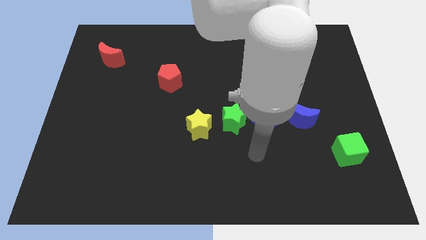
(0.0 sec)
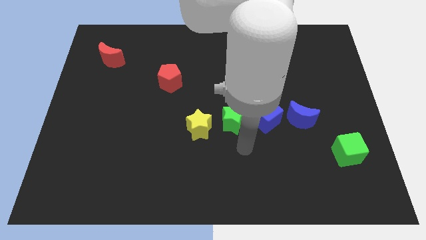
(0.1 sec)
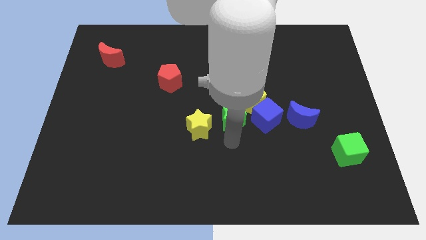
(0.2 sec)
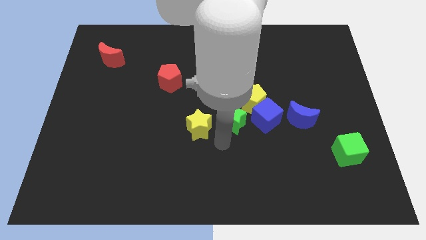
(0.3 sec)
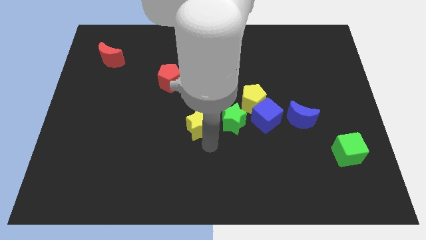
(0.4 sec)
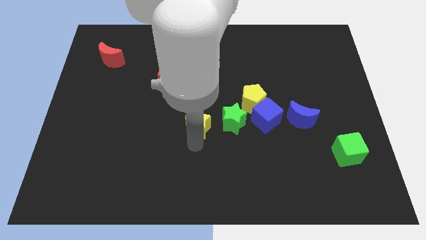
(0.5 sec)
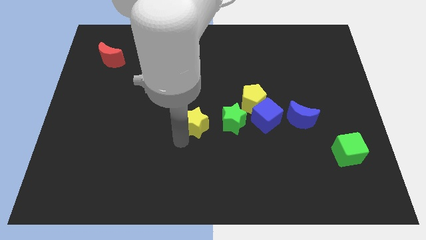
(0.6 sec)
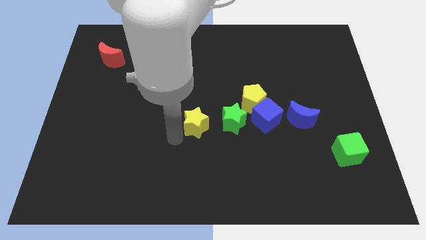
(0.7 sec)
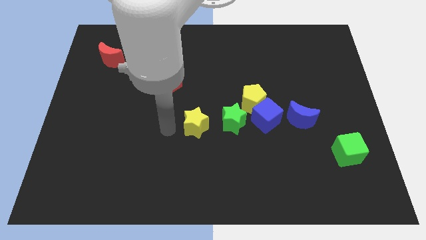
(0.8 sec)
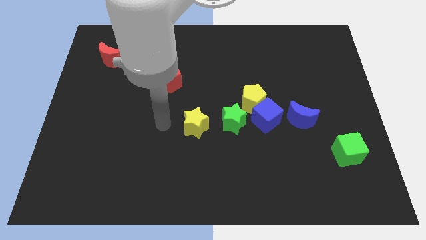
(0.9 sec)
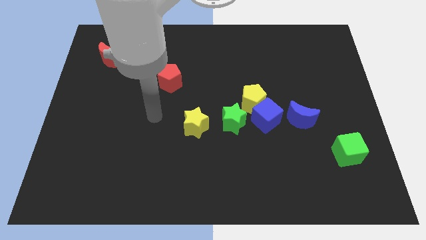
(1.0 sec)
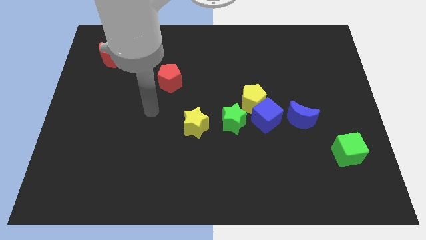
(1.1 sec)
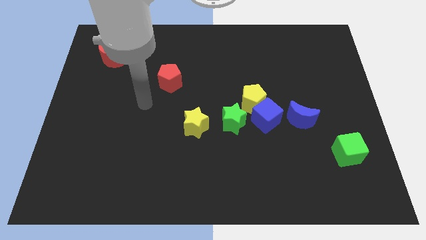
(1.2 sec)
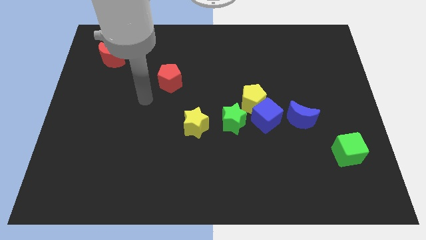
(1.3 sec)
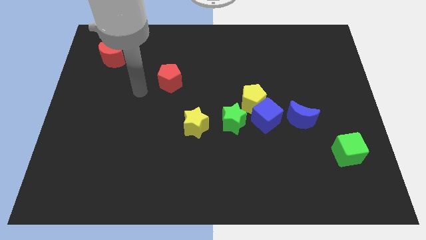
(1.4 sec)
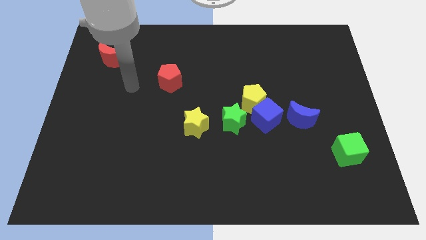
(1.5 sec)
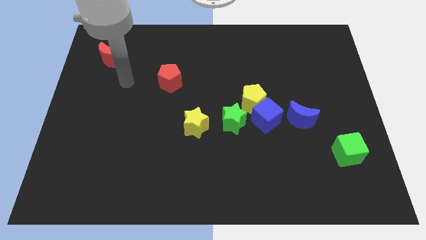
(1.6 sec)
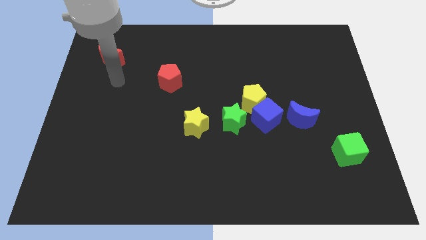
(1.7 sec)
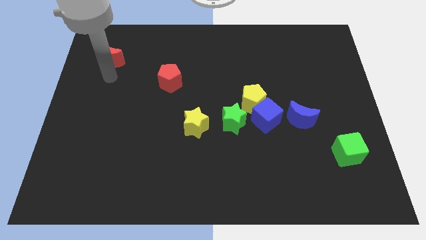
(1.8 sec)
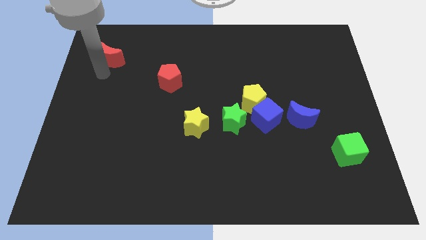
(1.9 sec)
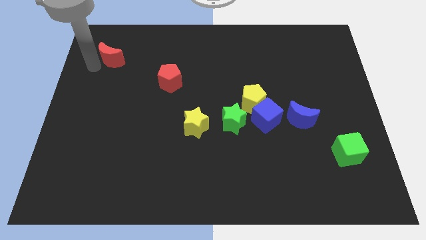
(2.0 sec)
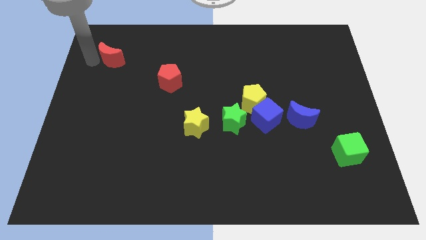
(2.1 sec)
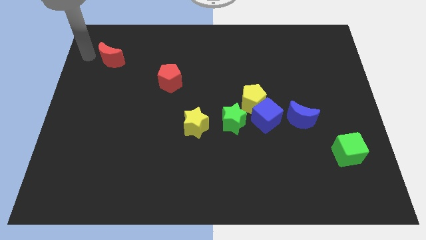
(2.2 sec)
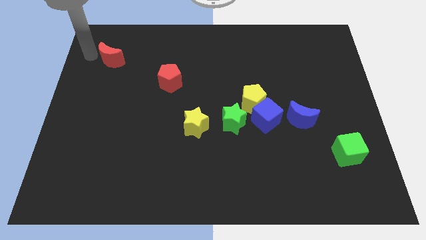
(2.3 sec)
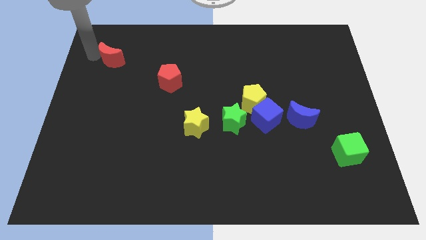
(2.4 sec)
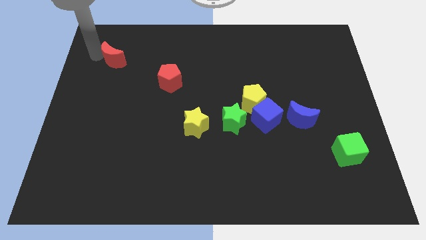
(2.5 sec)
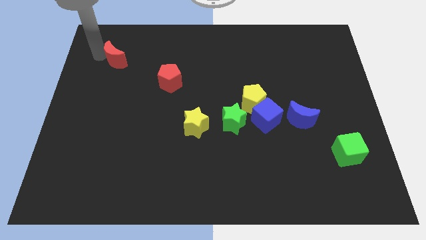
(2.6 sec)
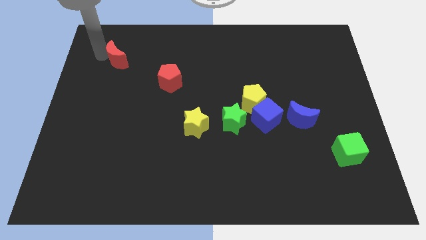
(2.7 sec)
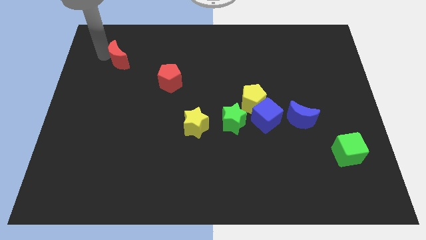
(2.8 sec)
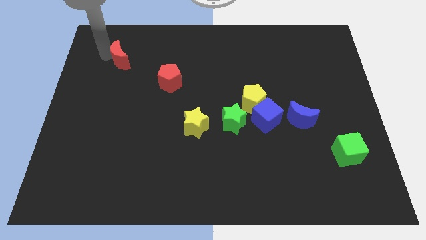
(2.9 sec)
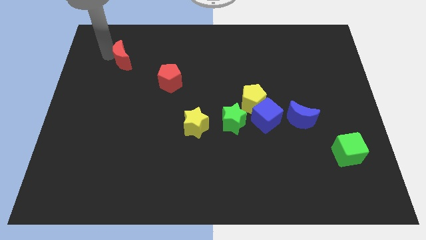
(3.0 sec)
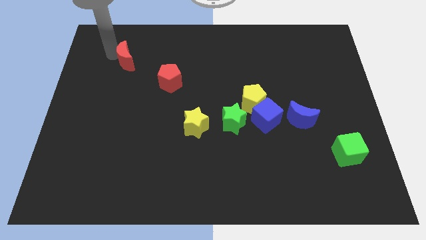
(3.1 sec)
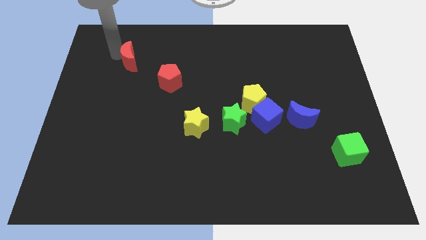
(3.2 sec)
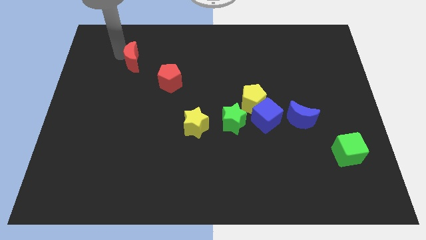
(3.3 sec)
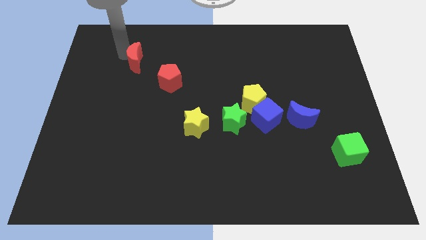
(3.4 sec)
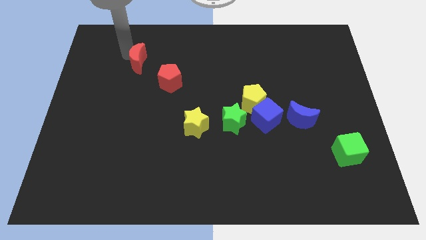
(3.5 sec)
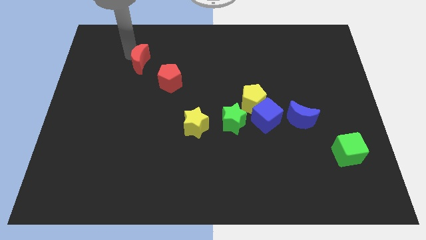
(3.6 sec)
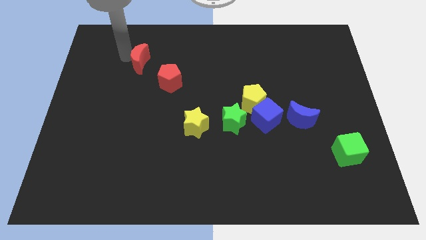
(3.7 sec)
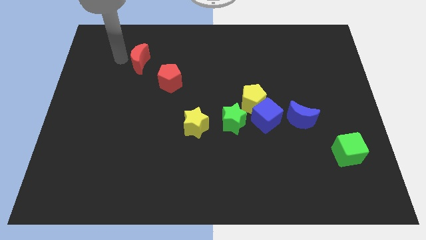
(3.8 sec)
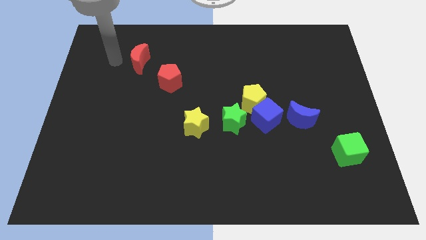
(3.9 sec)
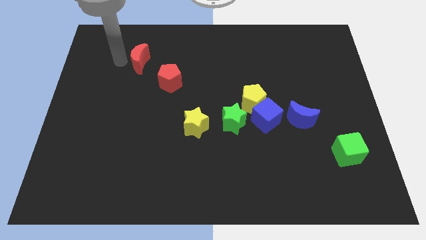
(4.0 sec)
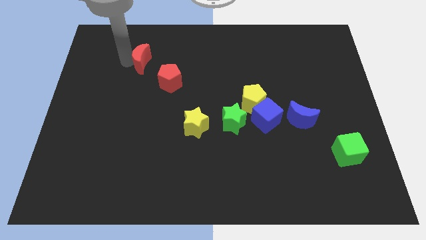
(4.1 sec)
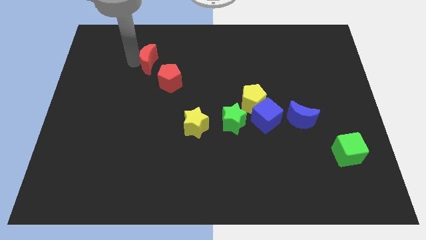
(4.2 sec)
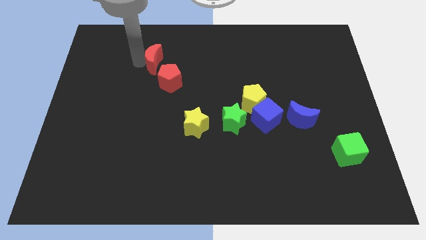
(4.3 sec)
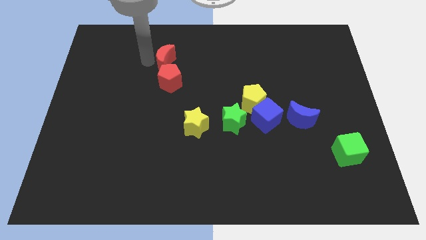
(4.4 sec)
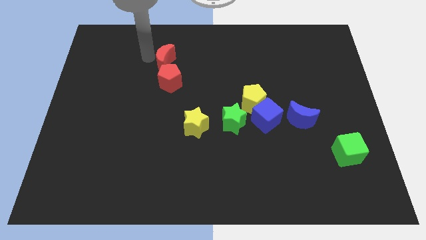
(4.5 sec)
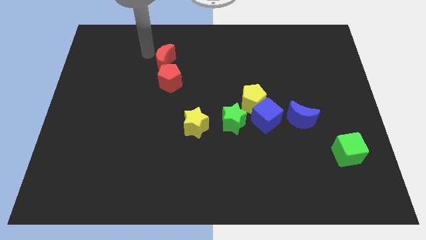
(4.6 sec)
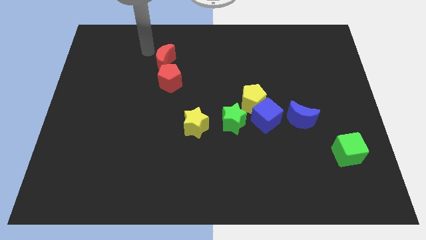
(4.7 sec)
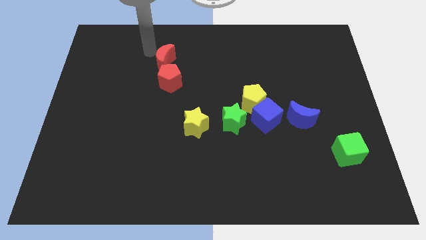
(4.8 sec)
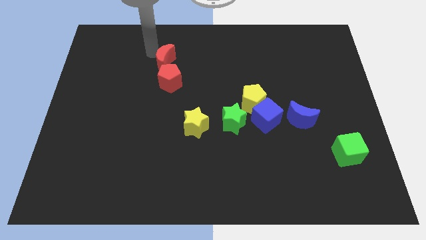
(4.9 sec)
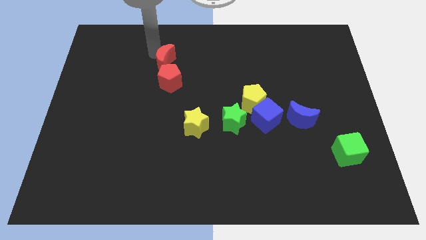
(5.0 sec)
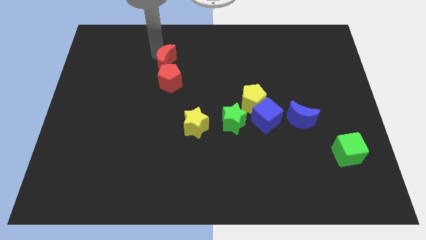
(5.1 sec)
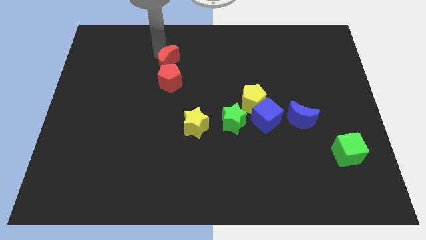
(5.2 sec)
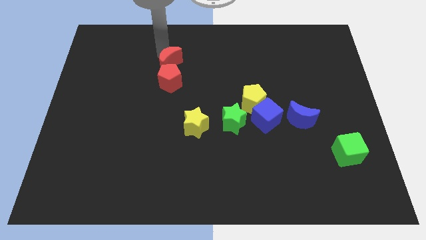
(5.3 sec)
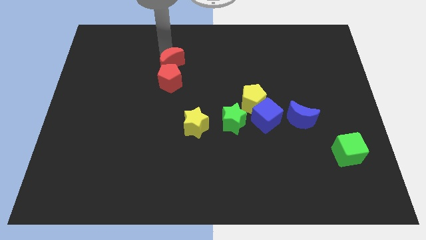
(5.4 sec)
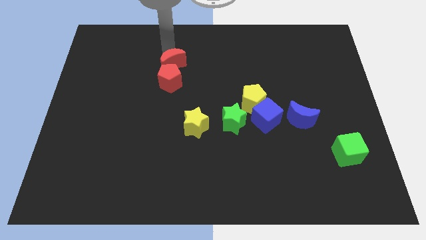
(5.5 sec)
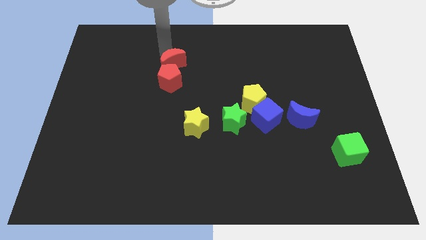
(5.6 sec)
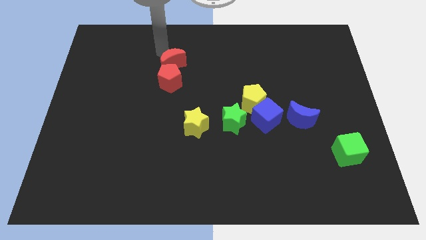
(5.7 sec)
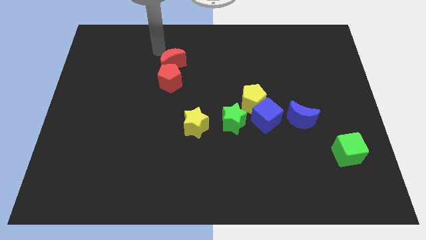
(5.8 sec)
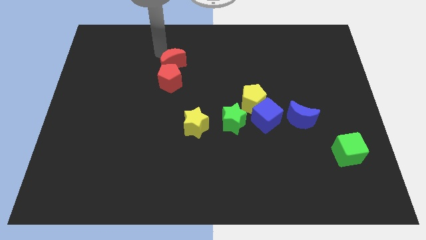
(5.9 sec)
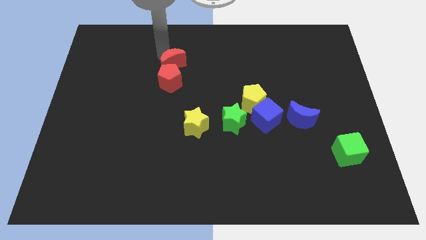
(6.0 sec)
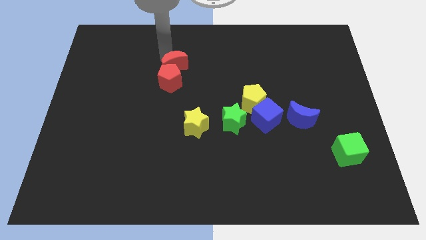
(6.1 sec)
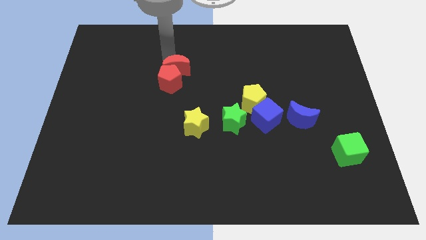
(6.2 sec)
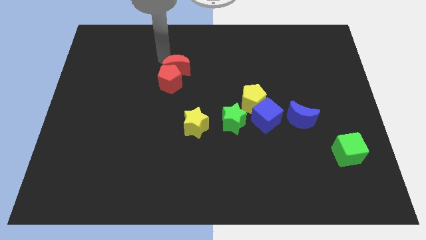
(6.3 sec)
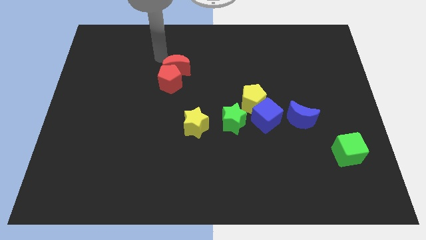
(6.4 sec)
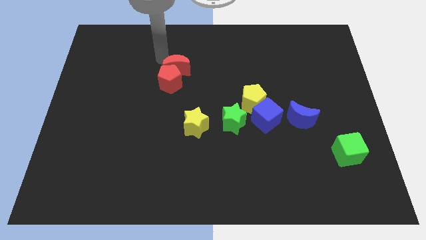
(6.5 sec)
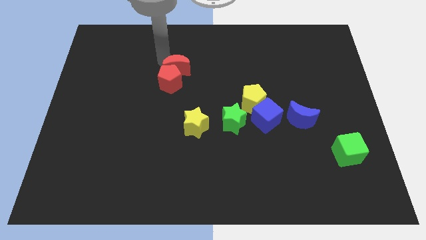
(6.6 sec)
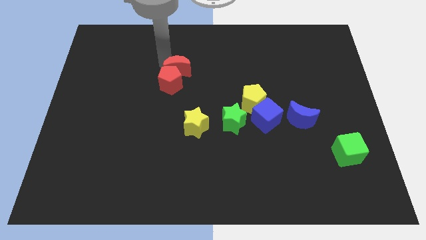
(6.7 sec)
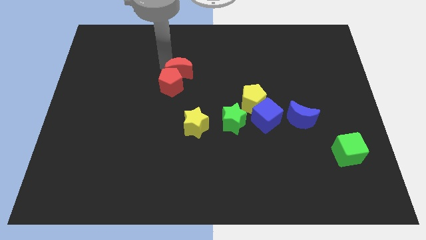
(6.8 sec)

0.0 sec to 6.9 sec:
move the red moon to the middle of the board
